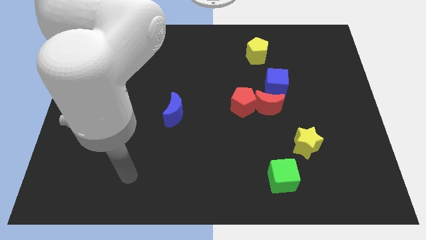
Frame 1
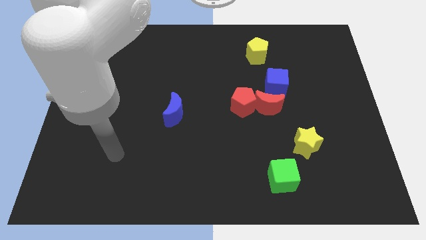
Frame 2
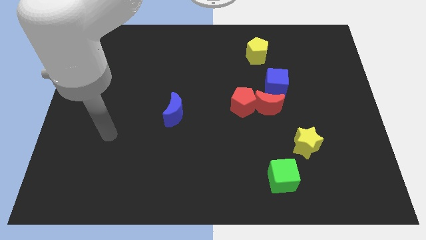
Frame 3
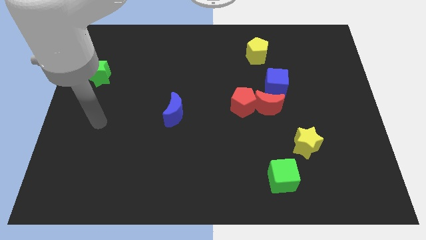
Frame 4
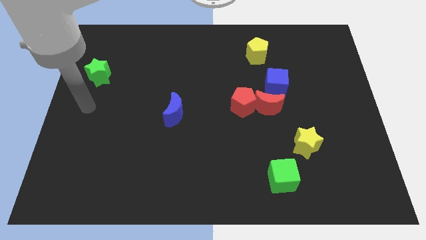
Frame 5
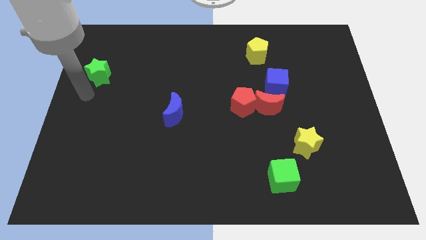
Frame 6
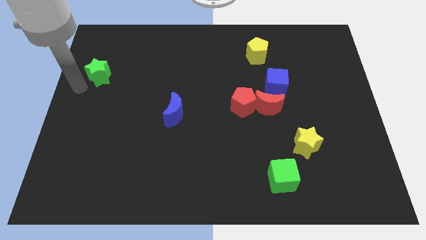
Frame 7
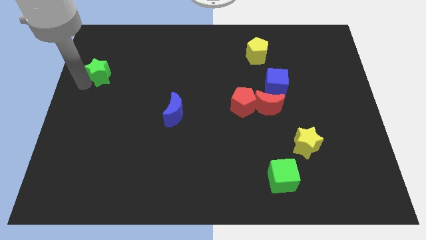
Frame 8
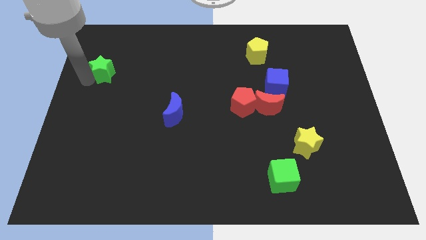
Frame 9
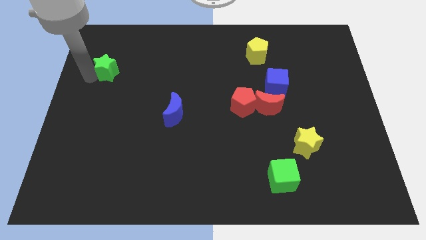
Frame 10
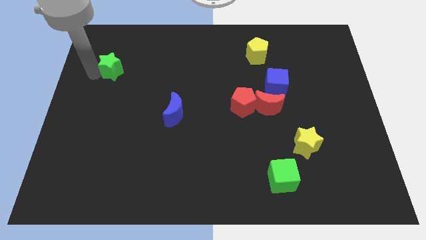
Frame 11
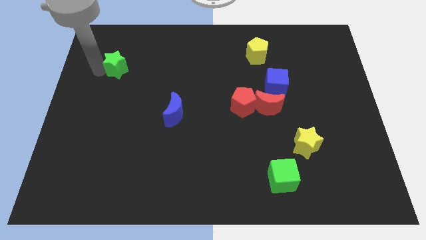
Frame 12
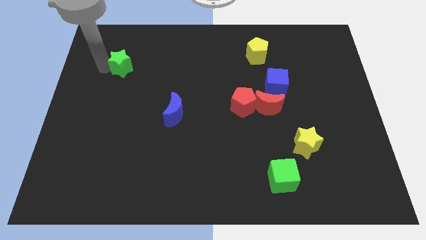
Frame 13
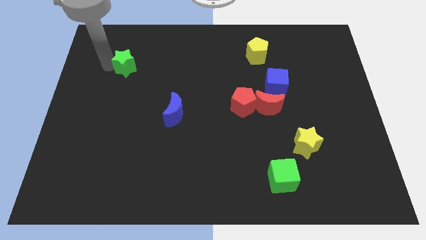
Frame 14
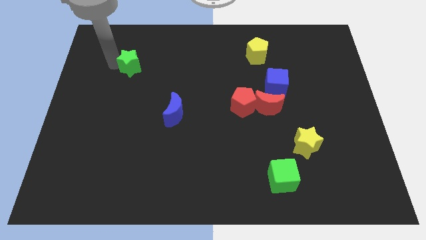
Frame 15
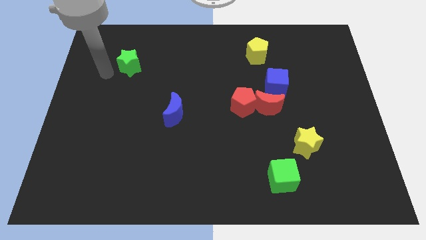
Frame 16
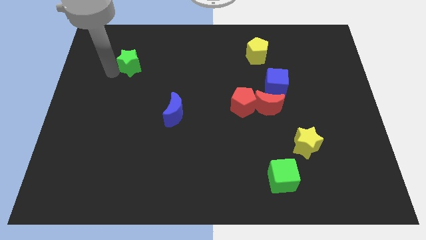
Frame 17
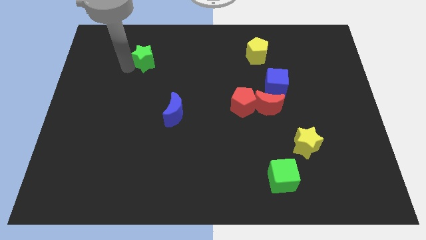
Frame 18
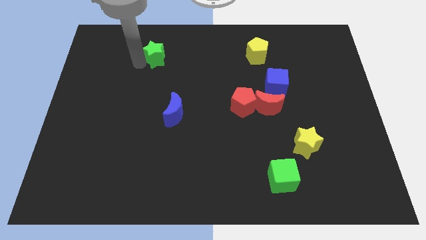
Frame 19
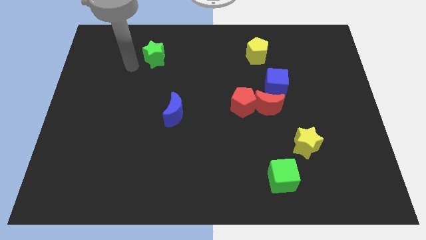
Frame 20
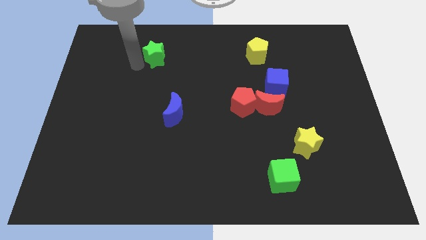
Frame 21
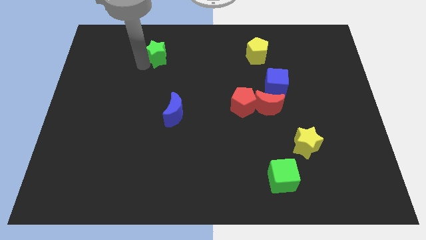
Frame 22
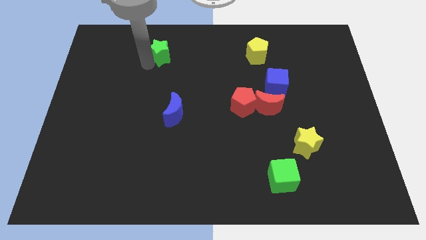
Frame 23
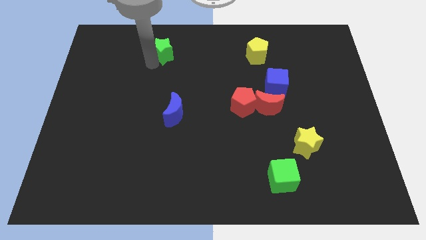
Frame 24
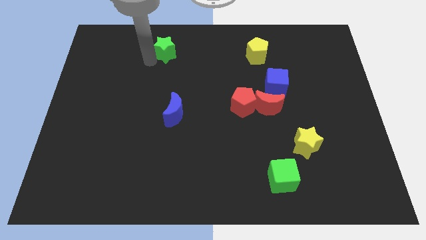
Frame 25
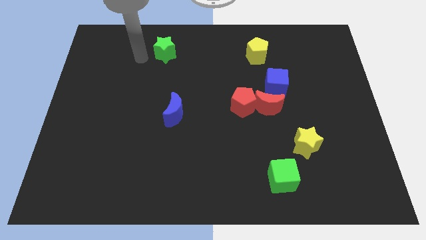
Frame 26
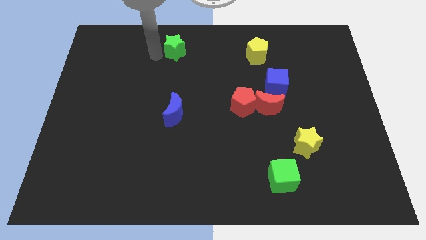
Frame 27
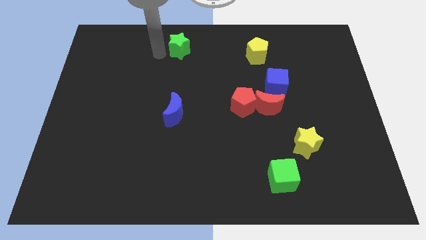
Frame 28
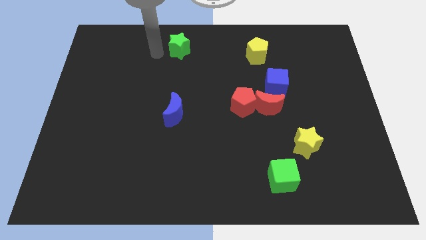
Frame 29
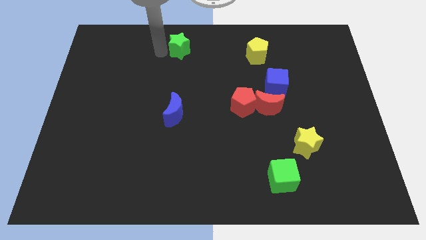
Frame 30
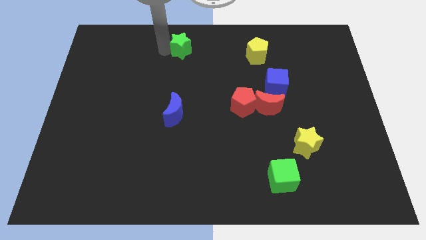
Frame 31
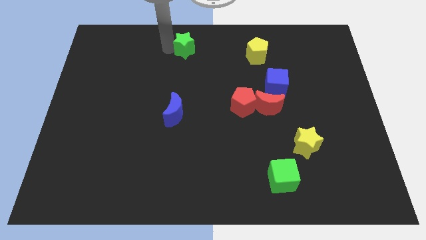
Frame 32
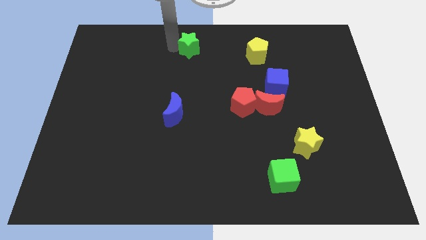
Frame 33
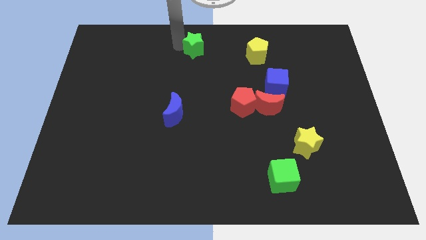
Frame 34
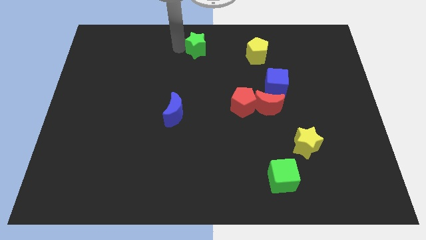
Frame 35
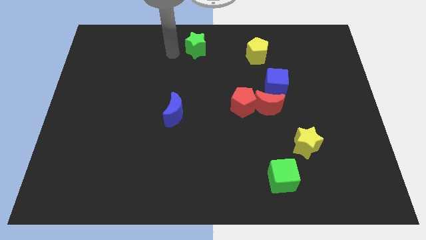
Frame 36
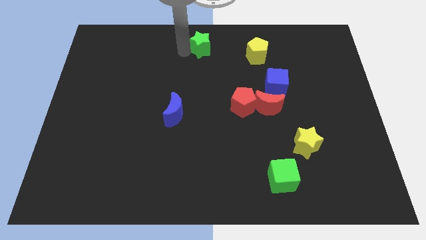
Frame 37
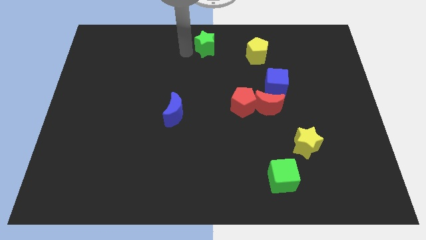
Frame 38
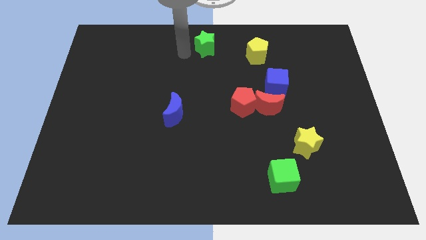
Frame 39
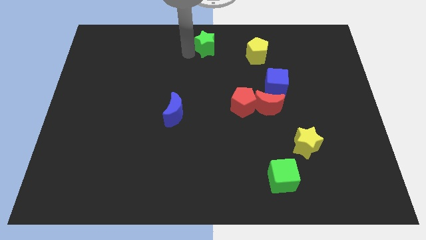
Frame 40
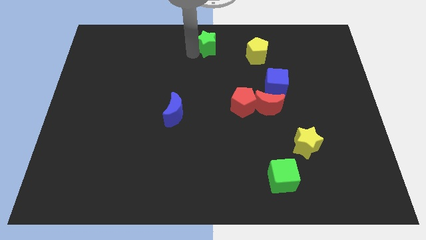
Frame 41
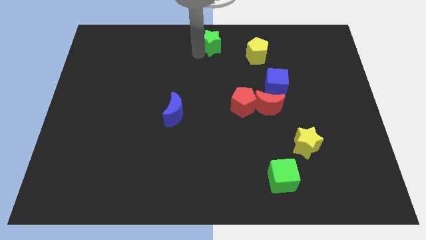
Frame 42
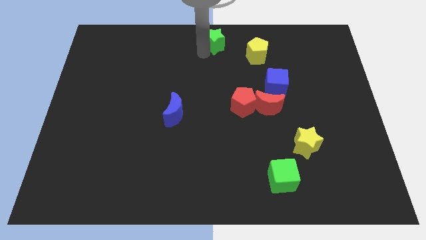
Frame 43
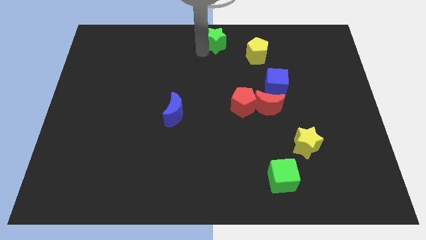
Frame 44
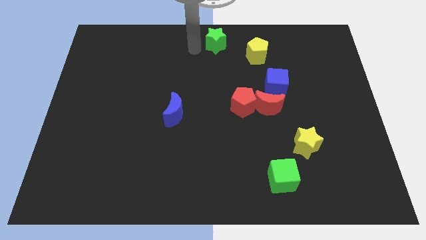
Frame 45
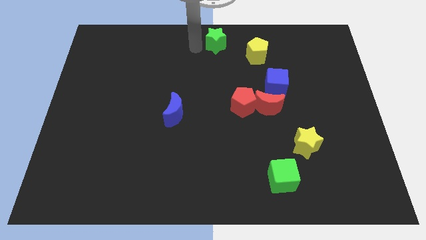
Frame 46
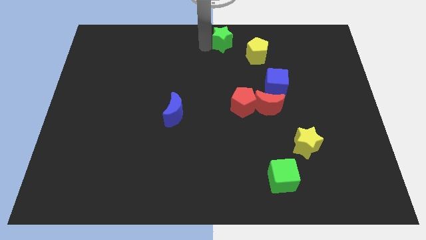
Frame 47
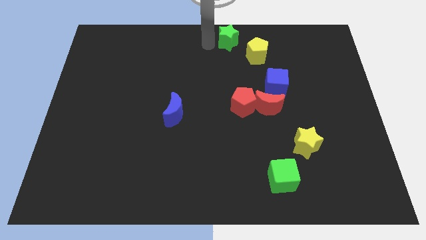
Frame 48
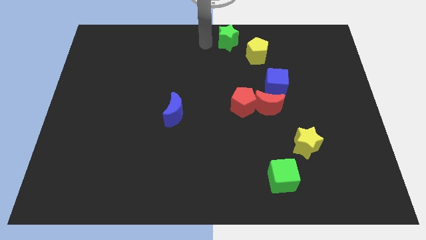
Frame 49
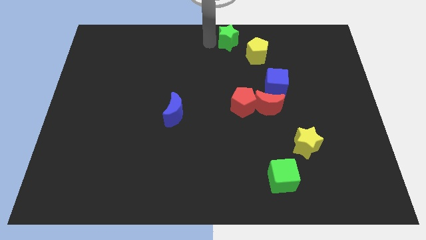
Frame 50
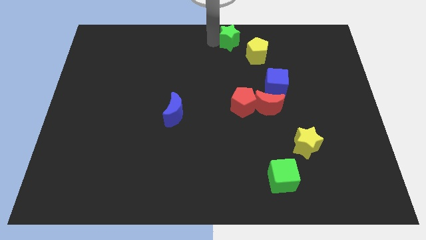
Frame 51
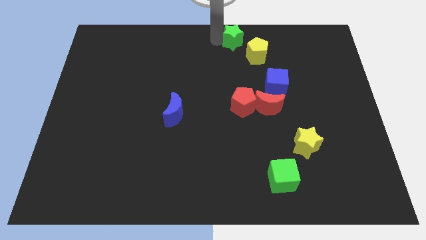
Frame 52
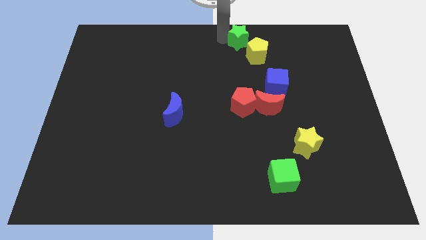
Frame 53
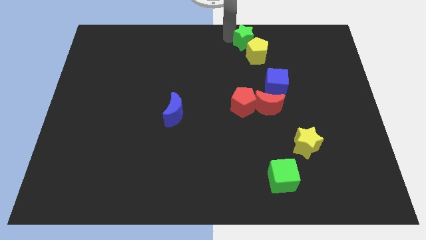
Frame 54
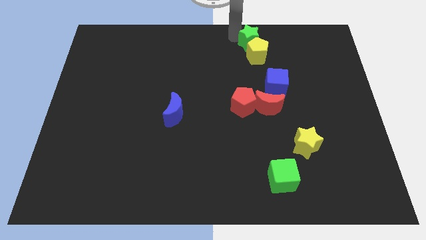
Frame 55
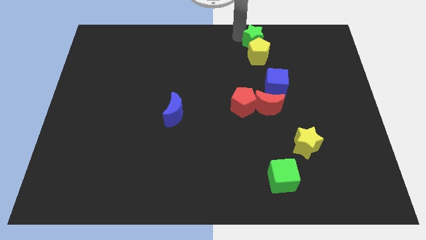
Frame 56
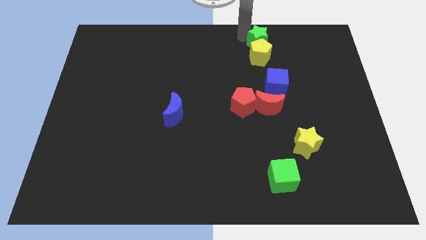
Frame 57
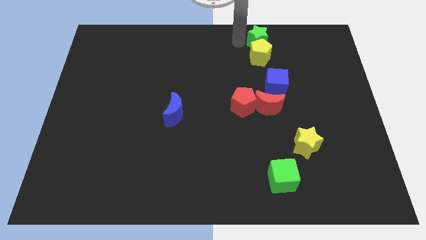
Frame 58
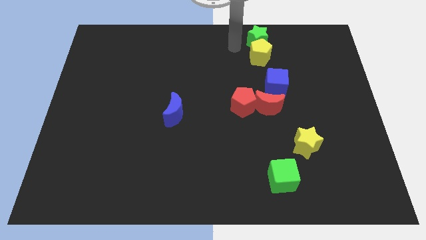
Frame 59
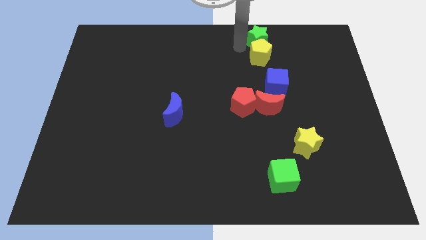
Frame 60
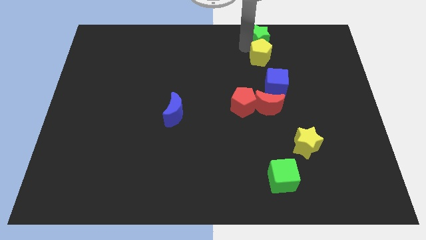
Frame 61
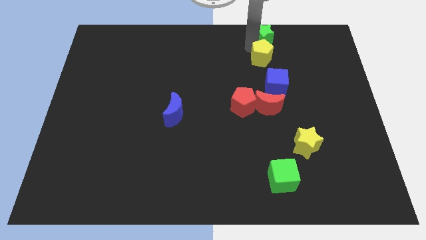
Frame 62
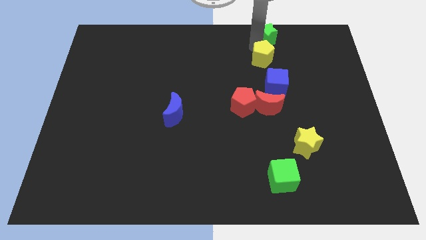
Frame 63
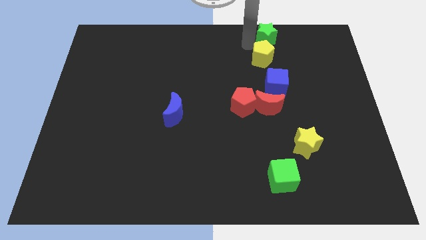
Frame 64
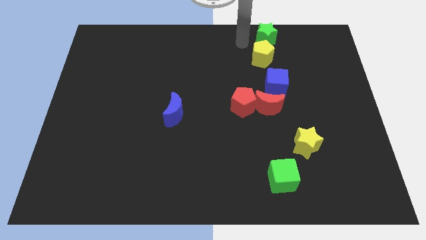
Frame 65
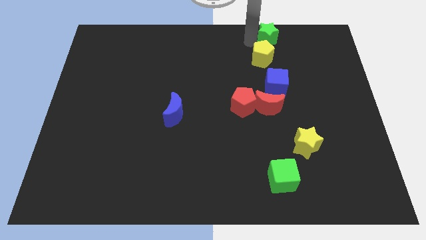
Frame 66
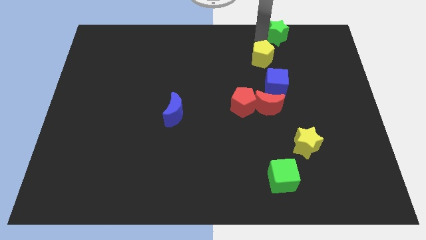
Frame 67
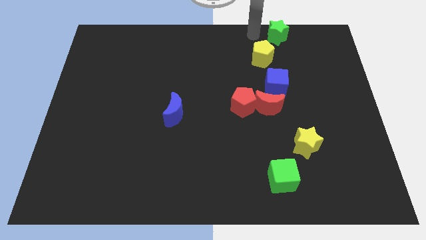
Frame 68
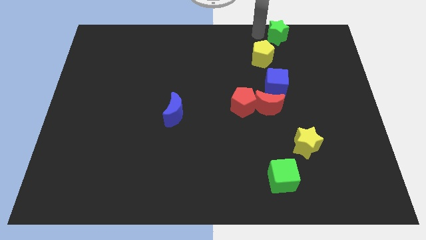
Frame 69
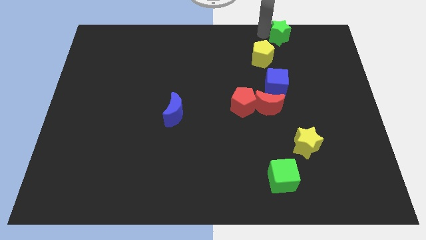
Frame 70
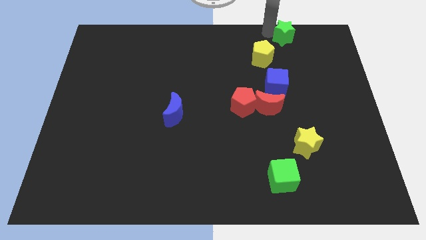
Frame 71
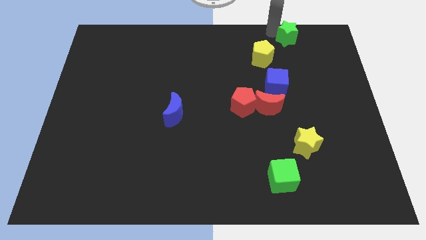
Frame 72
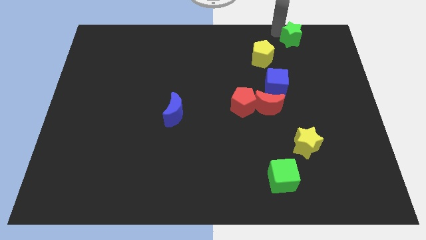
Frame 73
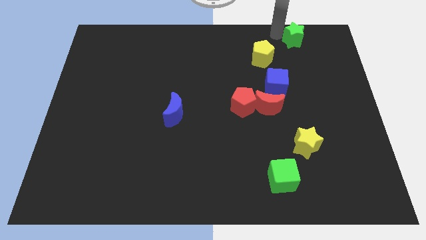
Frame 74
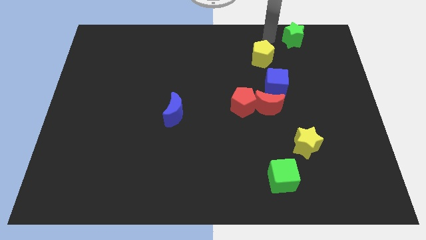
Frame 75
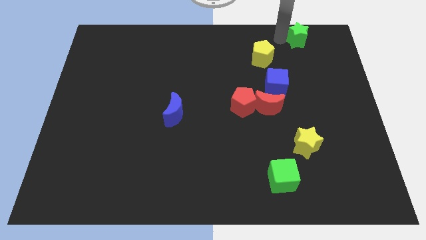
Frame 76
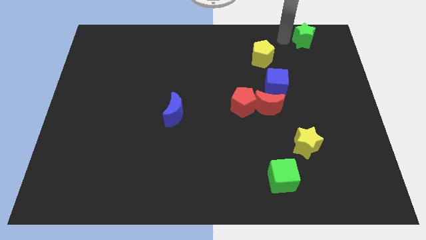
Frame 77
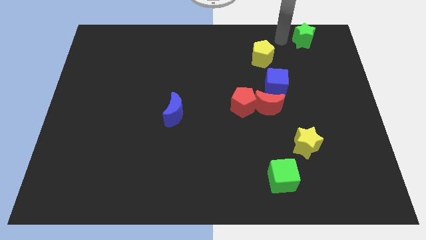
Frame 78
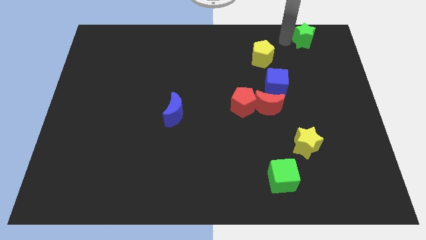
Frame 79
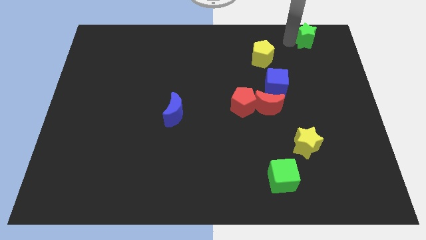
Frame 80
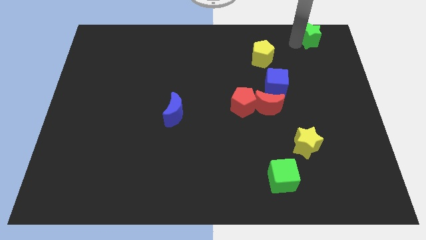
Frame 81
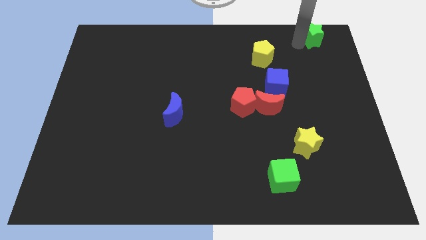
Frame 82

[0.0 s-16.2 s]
put the green star to the upper right corner
